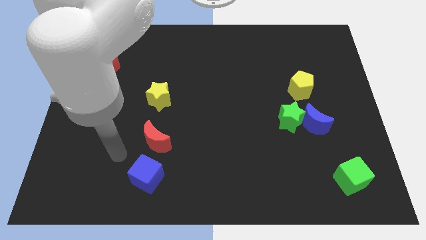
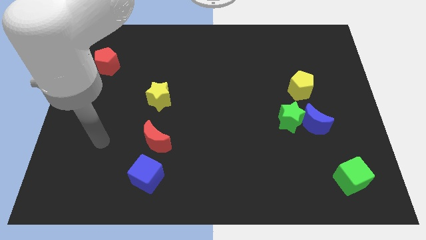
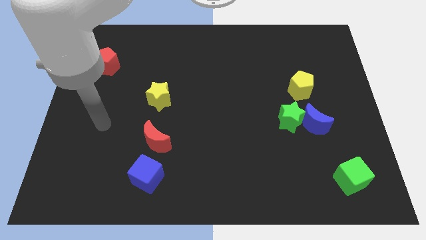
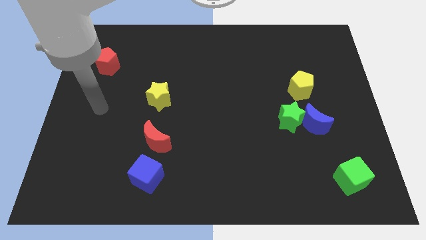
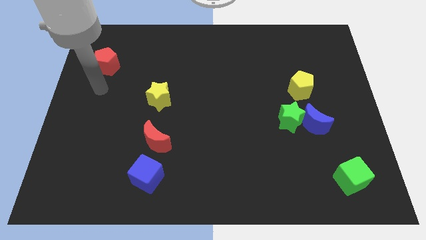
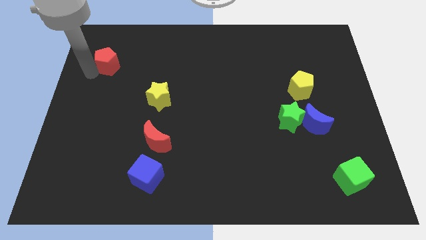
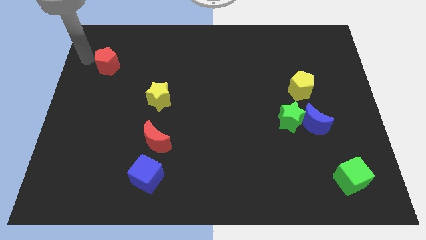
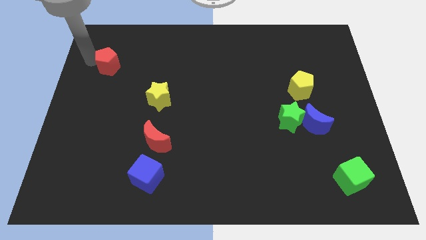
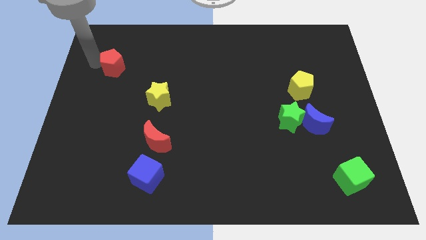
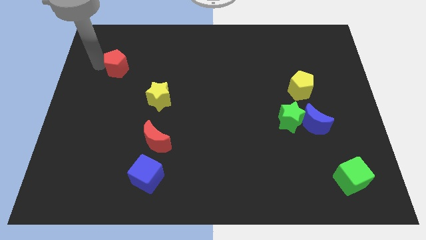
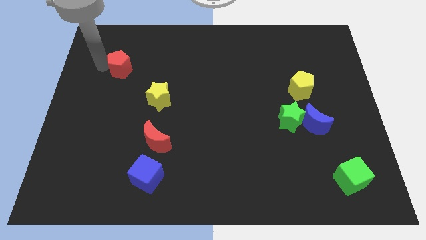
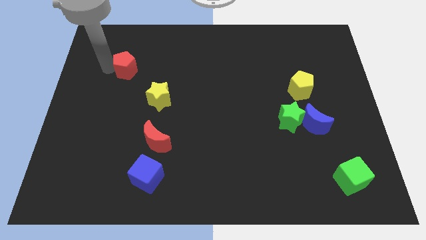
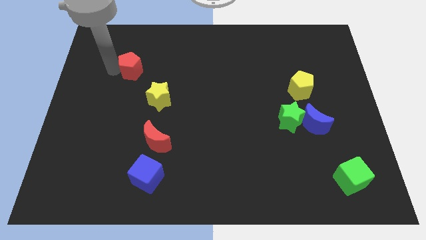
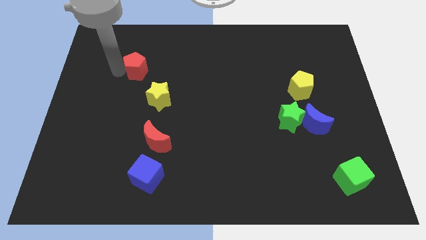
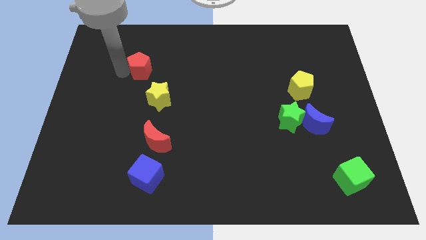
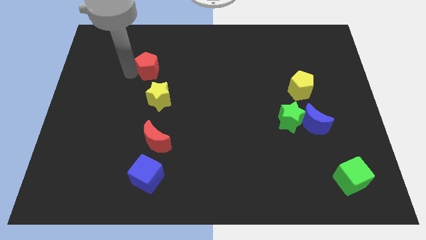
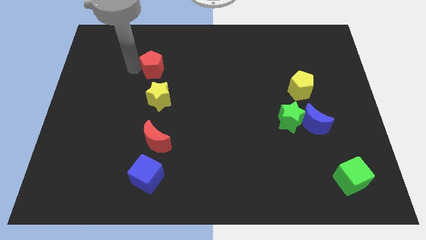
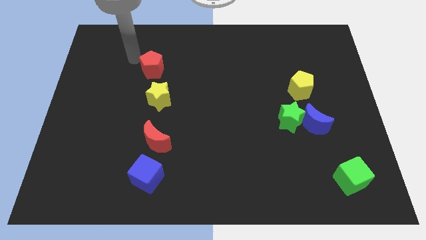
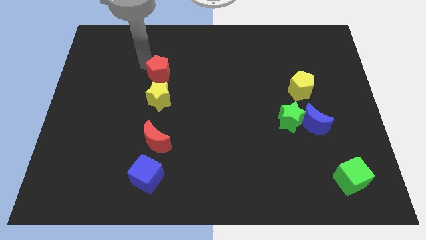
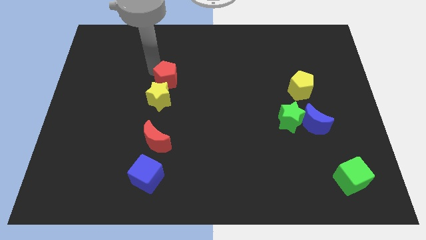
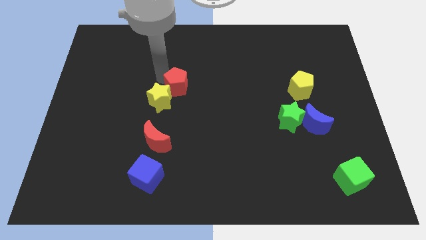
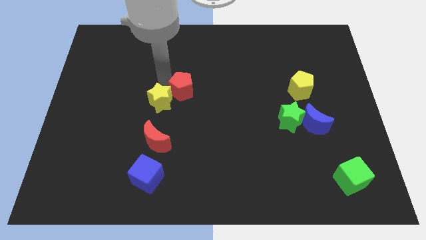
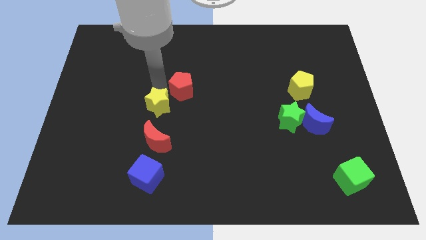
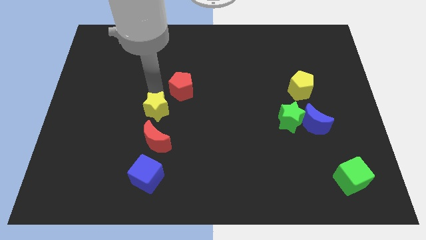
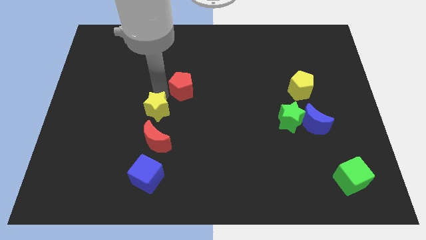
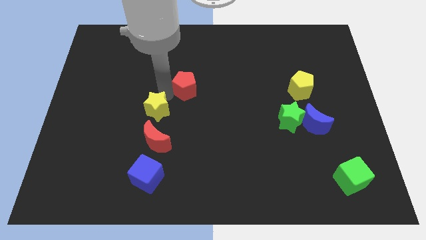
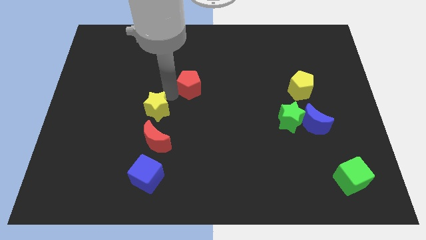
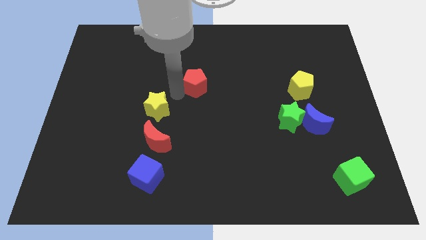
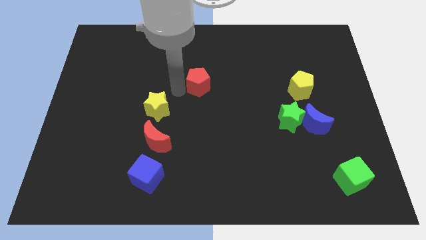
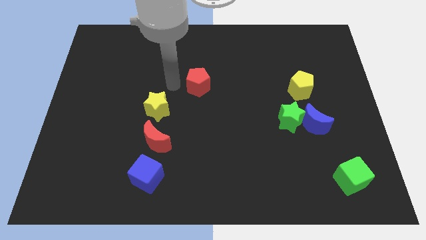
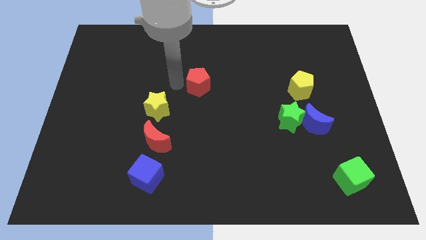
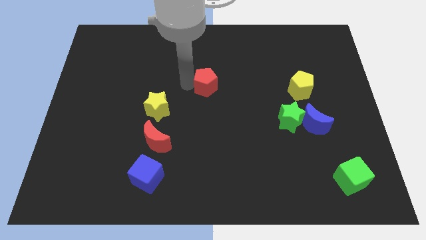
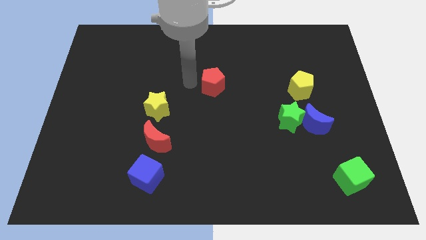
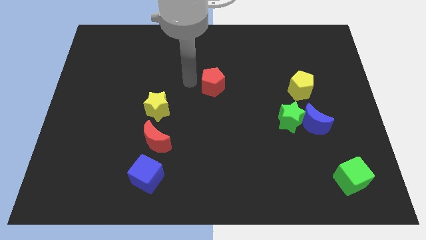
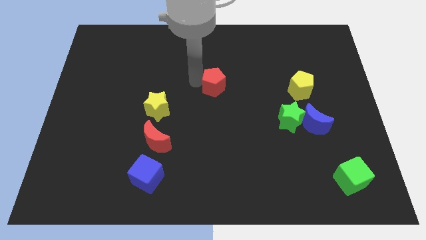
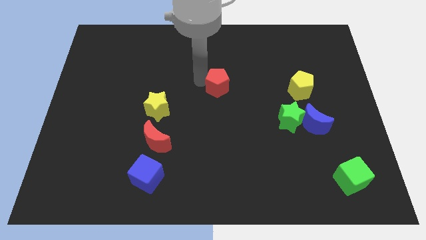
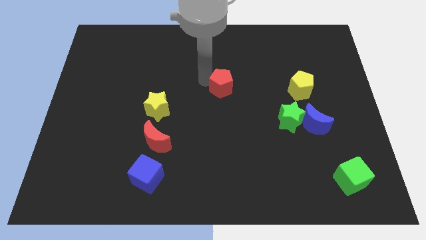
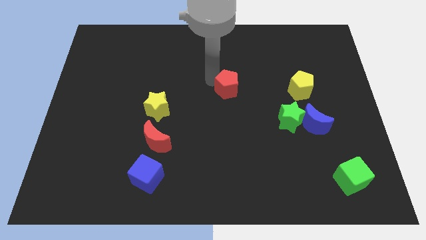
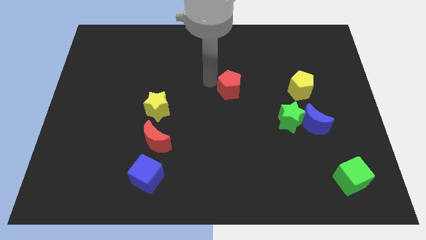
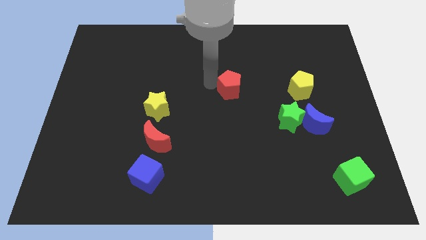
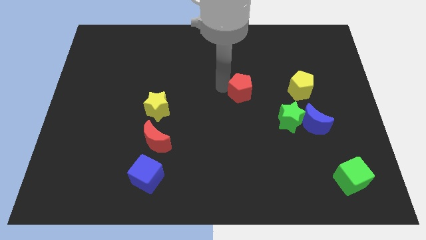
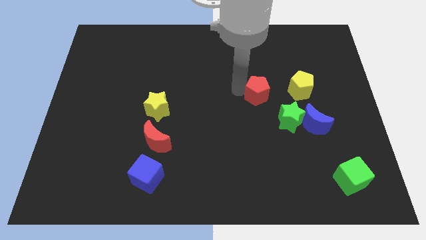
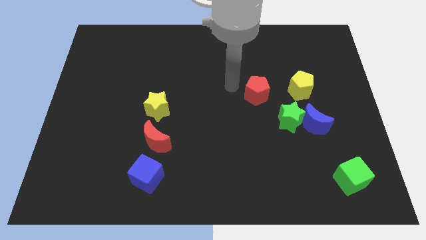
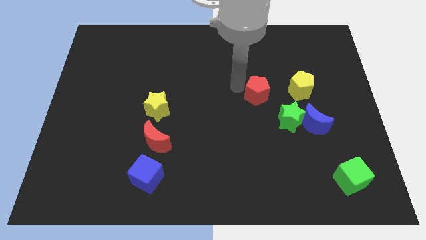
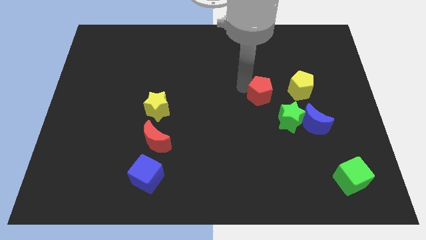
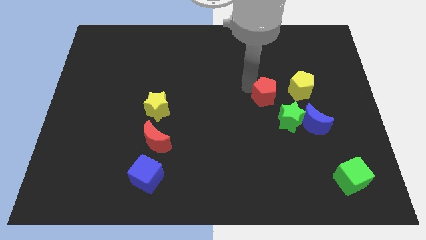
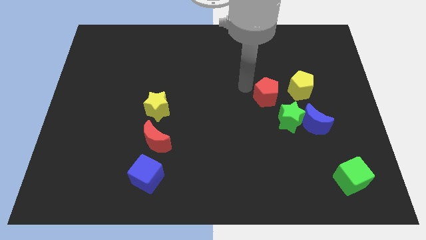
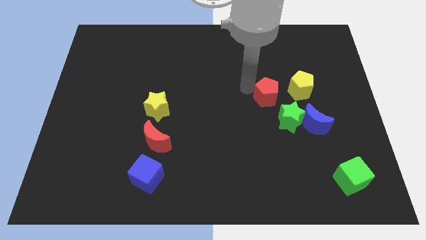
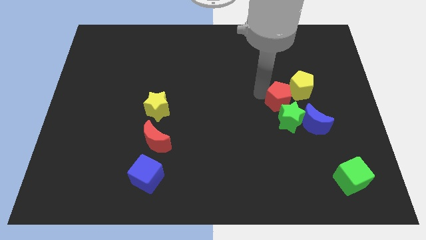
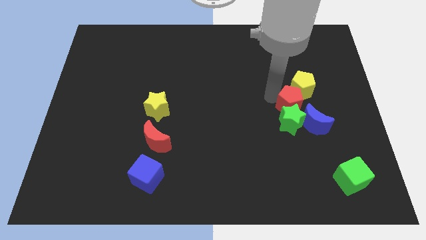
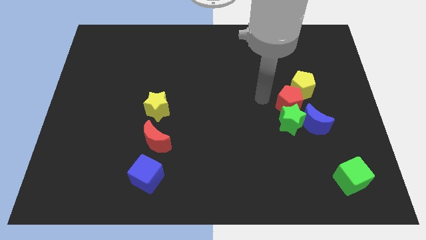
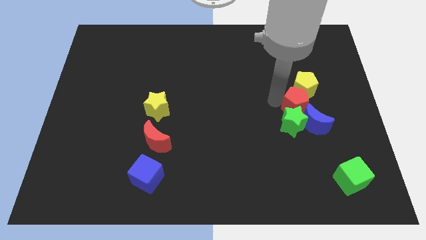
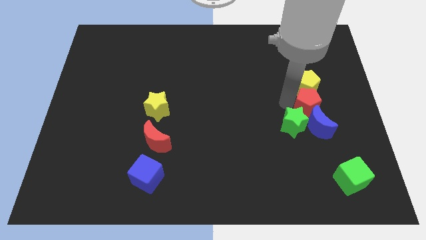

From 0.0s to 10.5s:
put the red pentagon next to the blue moon

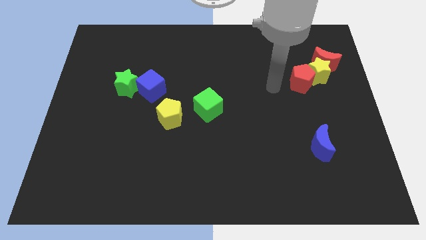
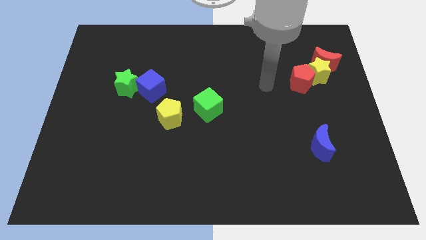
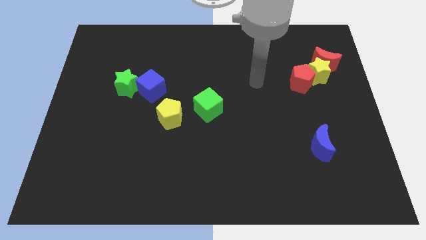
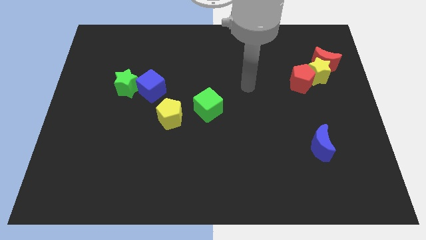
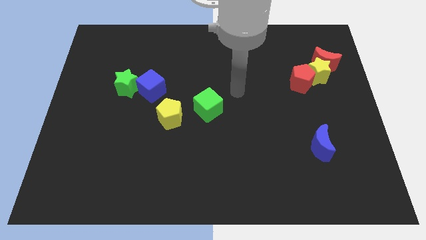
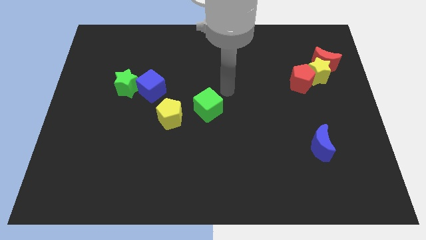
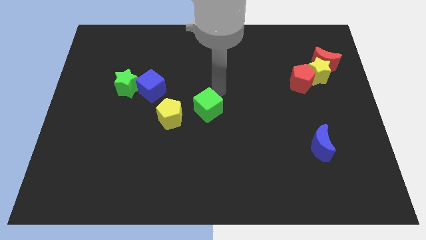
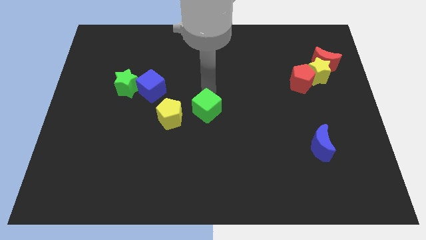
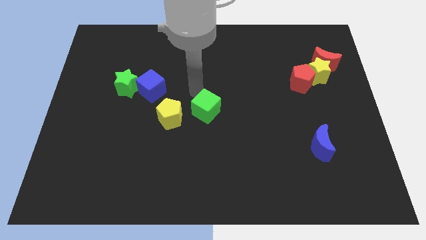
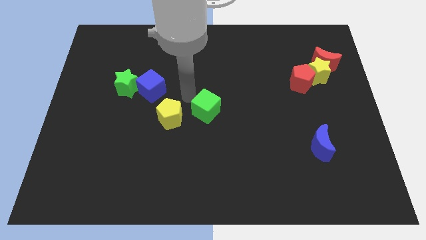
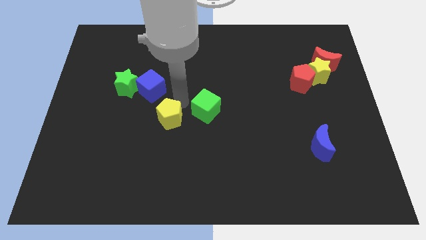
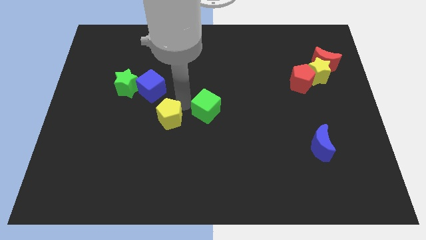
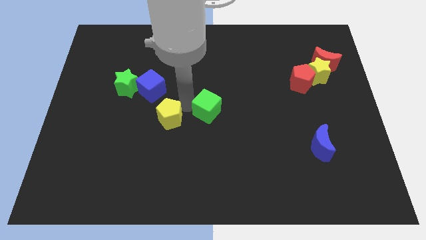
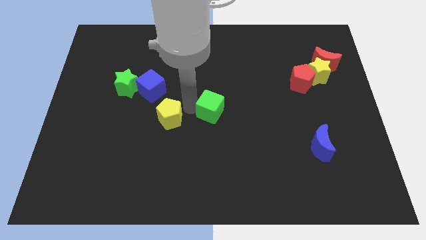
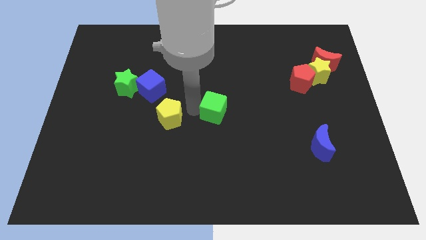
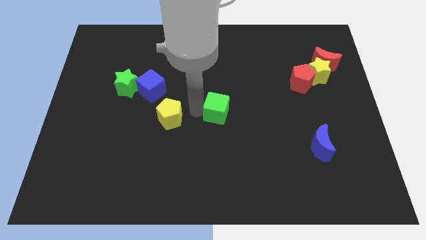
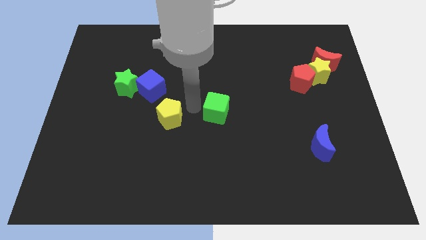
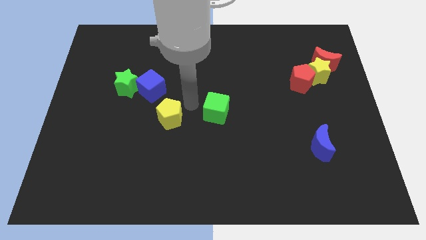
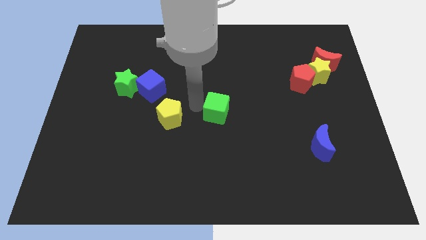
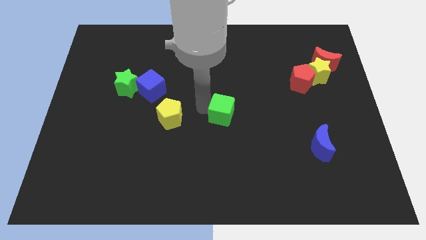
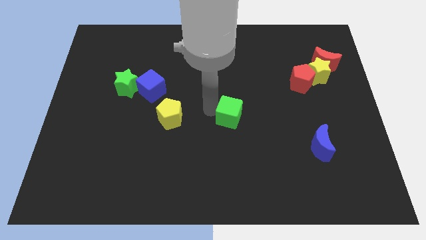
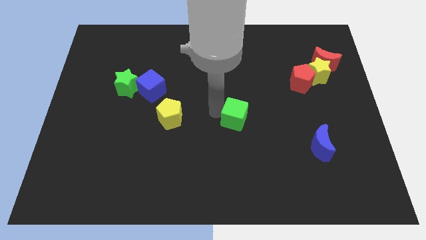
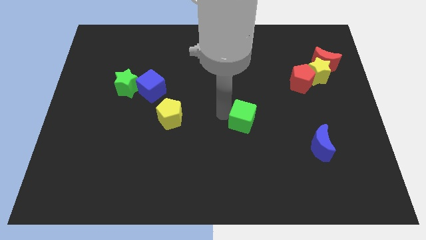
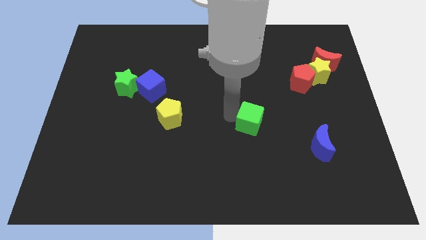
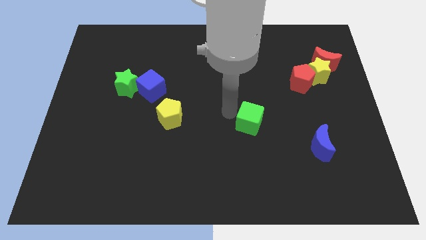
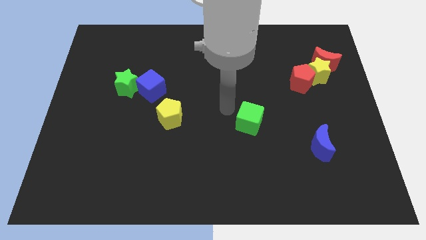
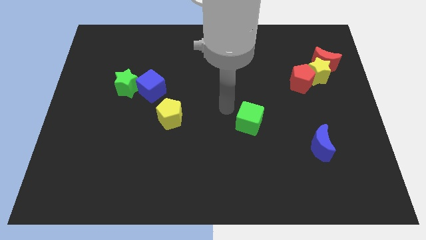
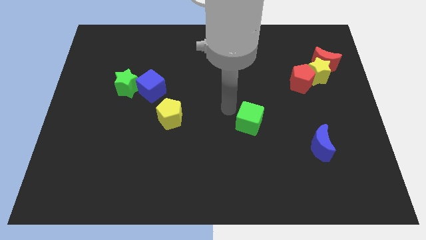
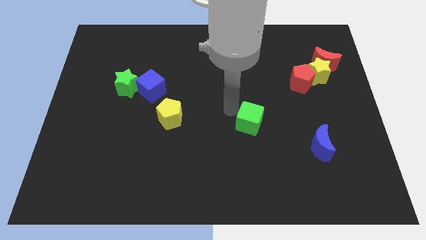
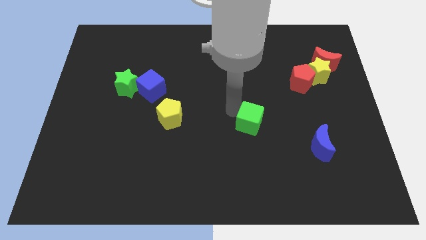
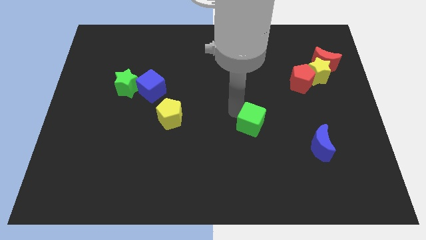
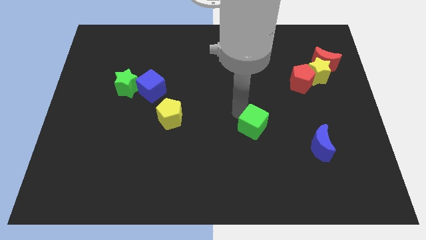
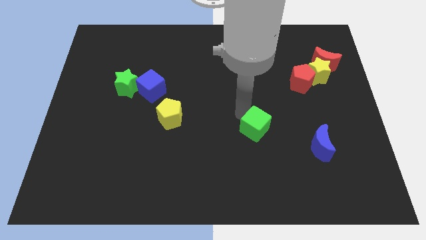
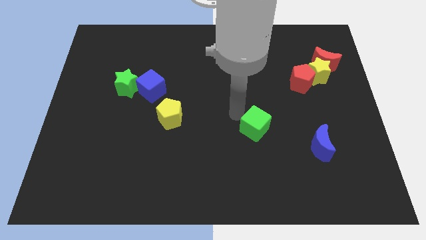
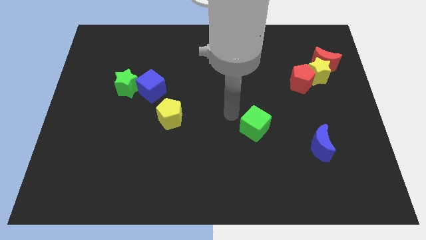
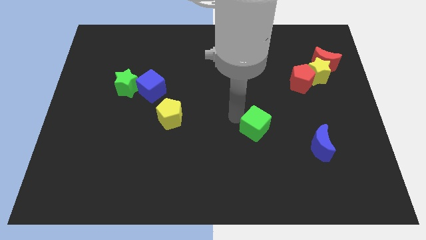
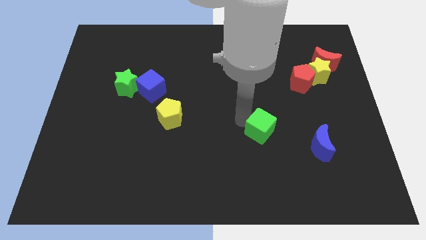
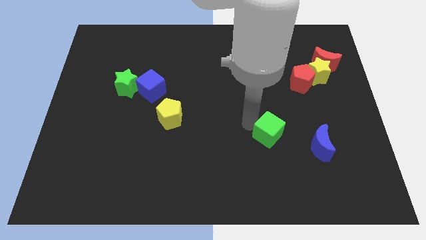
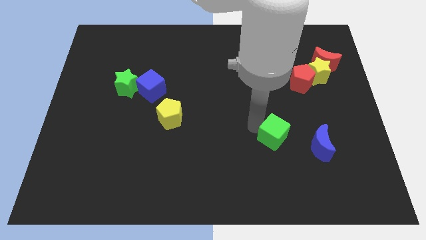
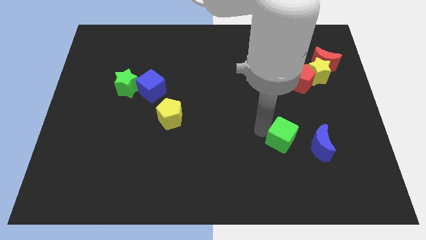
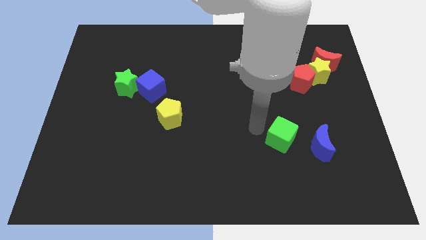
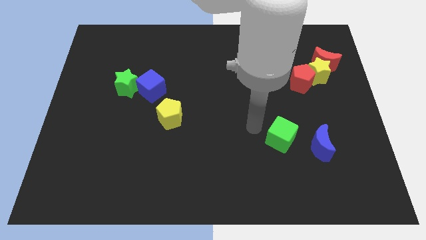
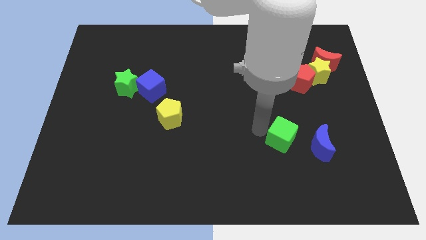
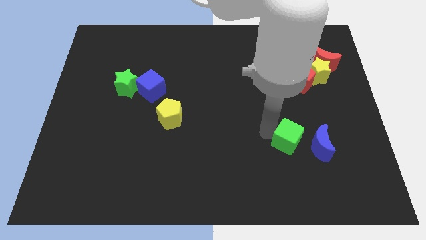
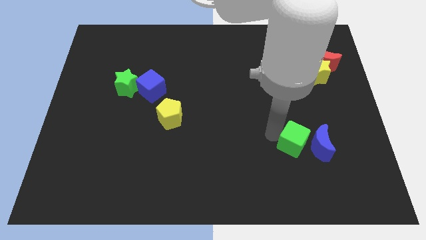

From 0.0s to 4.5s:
move the green cube towards the blue moon
